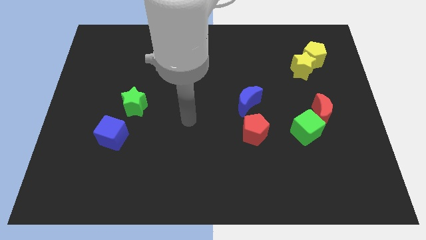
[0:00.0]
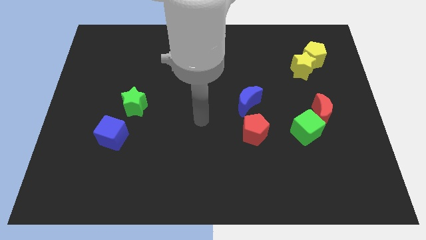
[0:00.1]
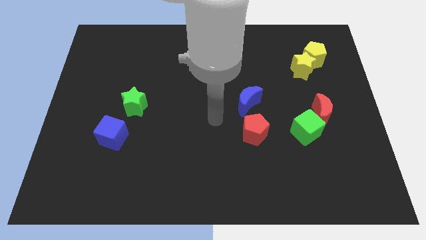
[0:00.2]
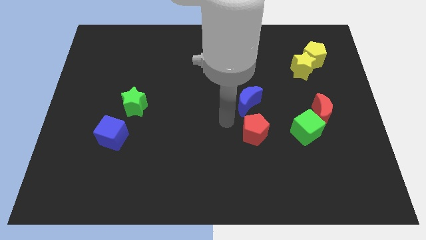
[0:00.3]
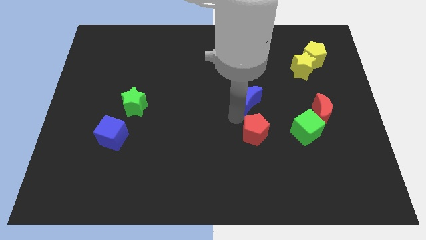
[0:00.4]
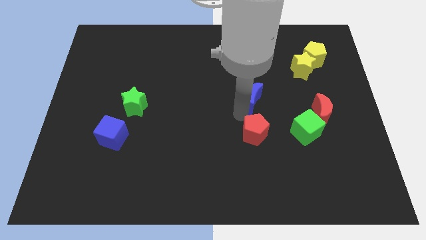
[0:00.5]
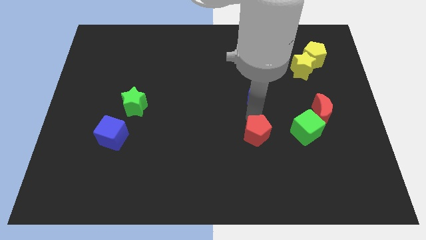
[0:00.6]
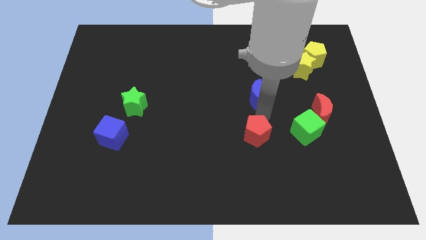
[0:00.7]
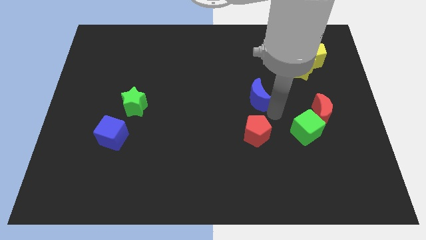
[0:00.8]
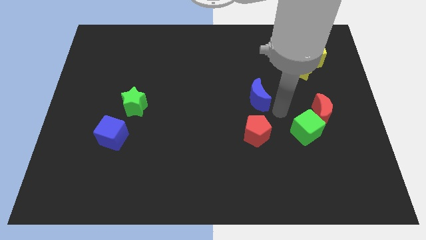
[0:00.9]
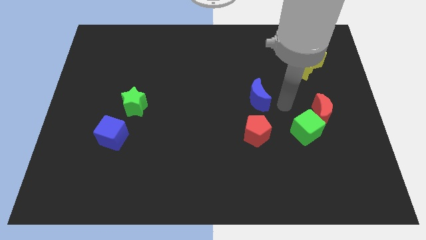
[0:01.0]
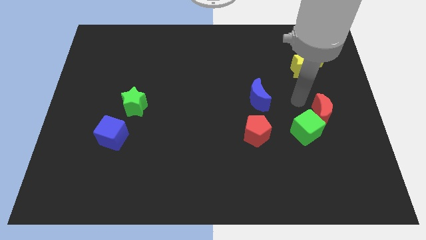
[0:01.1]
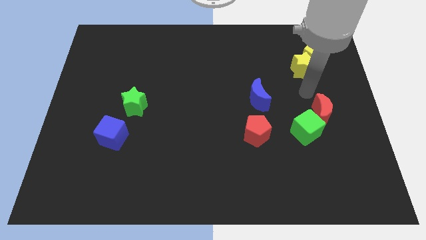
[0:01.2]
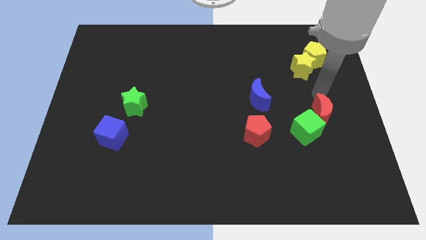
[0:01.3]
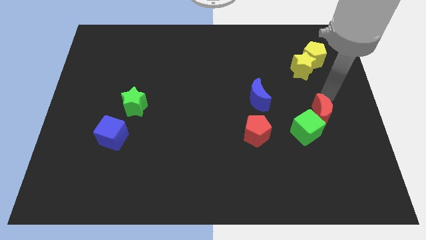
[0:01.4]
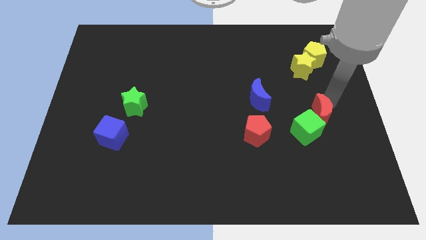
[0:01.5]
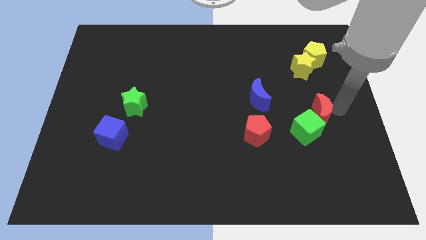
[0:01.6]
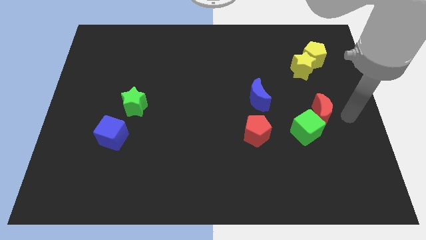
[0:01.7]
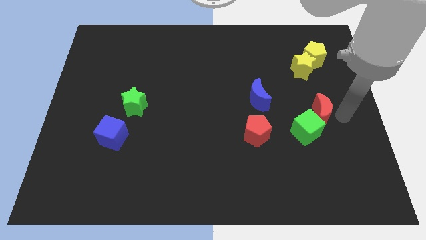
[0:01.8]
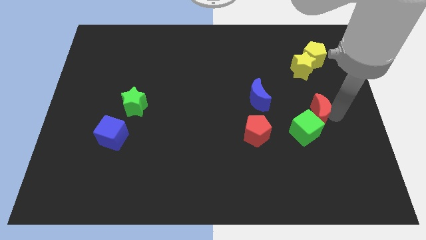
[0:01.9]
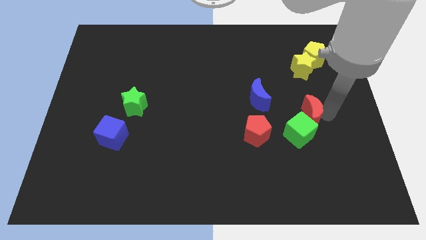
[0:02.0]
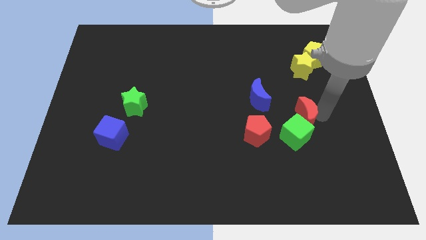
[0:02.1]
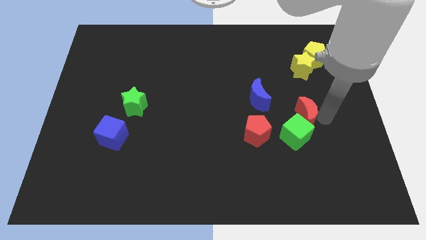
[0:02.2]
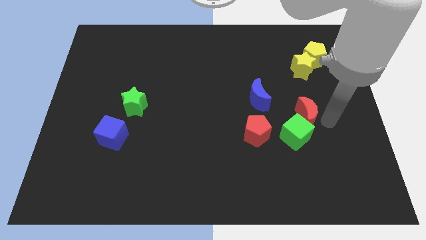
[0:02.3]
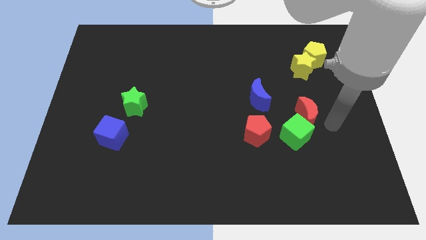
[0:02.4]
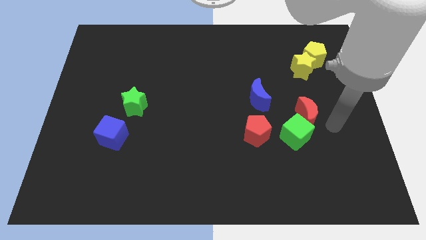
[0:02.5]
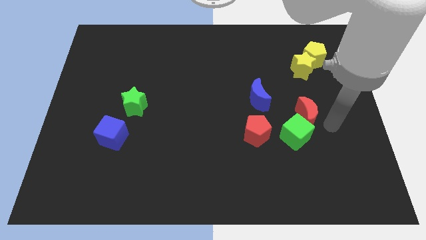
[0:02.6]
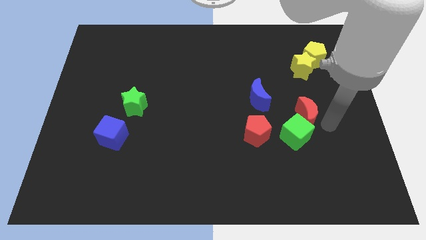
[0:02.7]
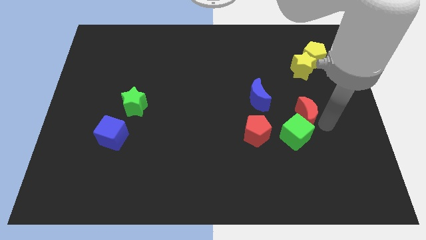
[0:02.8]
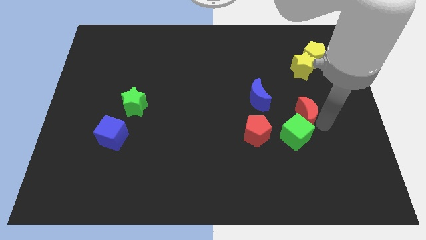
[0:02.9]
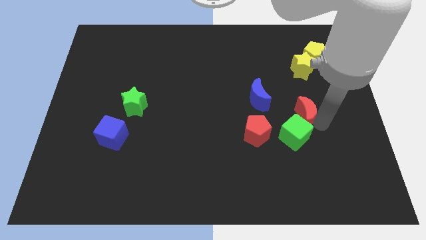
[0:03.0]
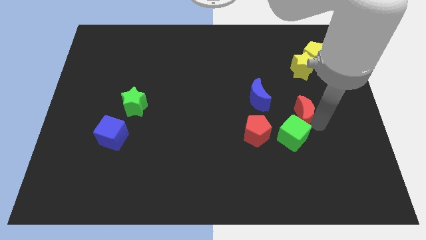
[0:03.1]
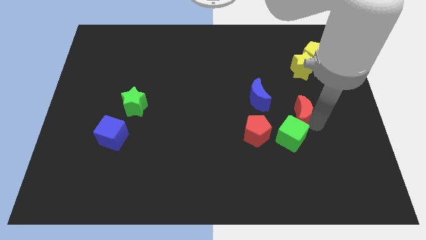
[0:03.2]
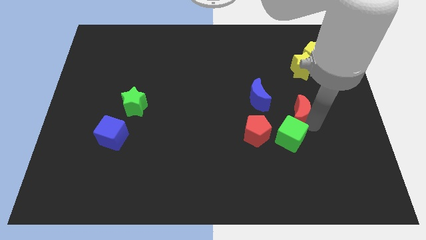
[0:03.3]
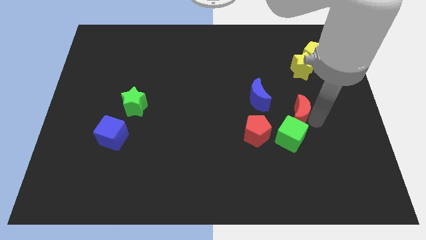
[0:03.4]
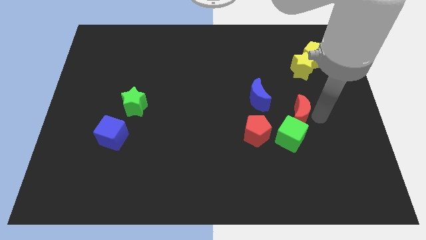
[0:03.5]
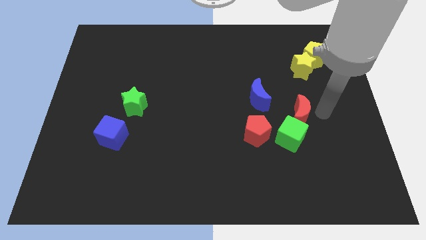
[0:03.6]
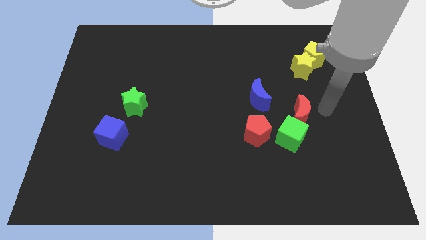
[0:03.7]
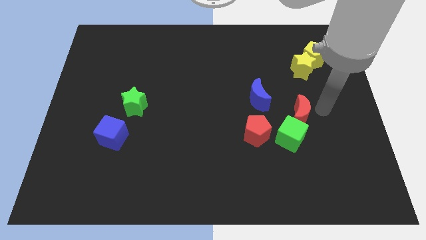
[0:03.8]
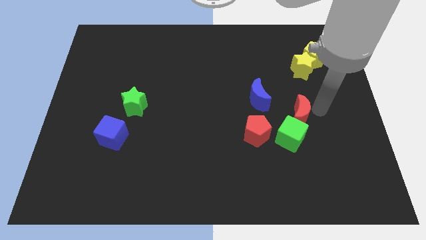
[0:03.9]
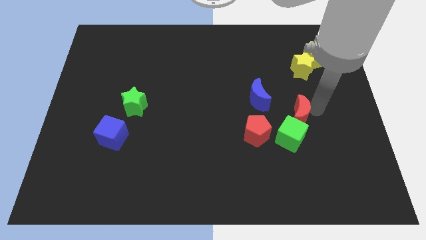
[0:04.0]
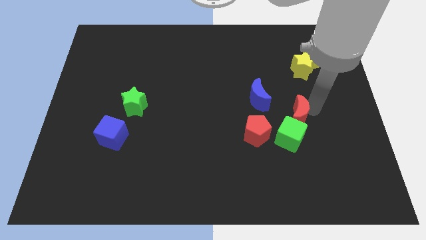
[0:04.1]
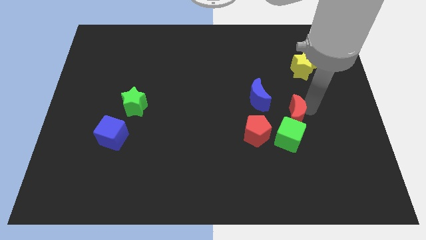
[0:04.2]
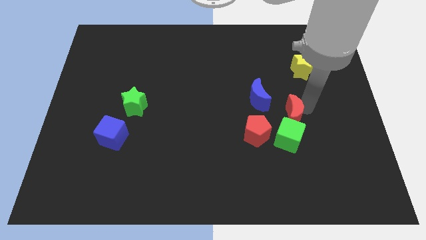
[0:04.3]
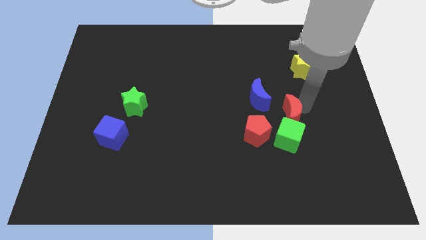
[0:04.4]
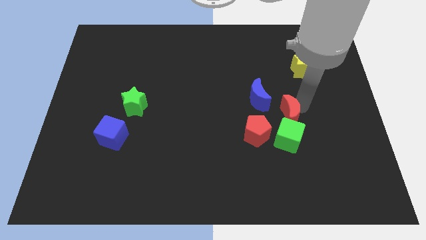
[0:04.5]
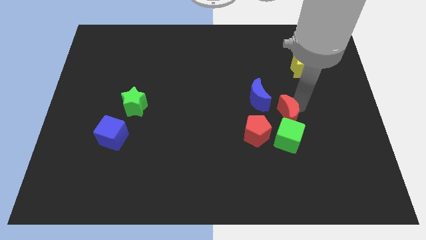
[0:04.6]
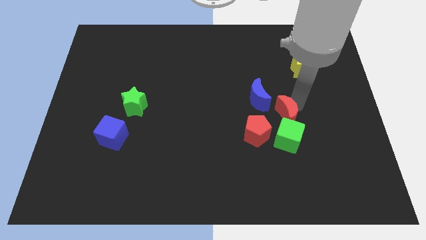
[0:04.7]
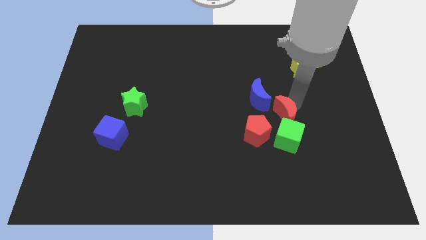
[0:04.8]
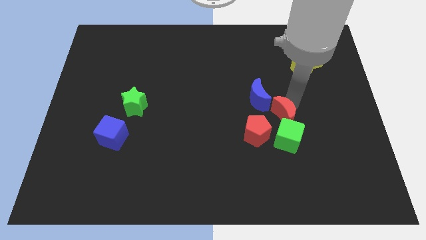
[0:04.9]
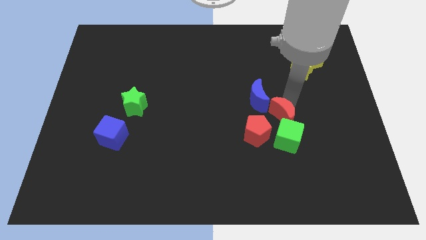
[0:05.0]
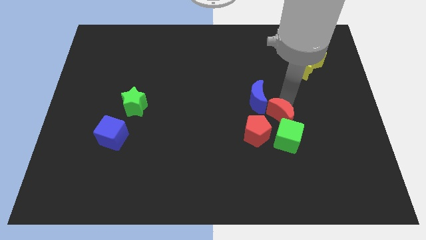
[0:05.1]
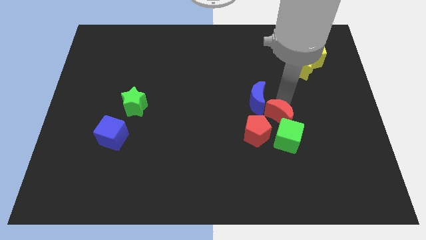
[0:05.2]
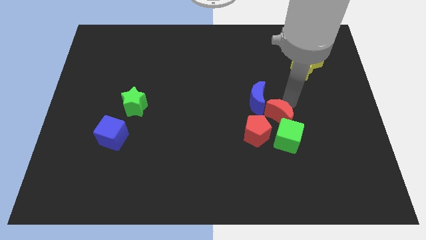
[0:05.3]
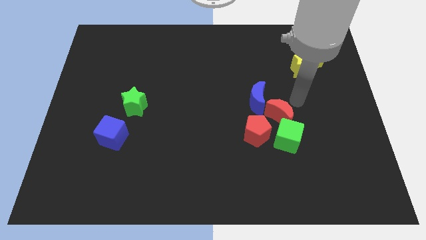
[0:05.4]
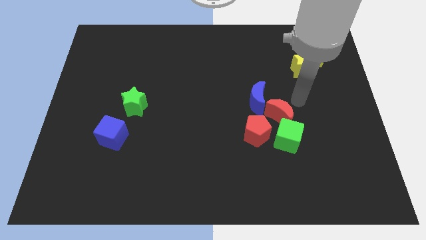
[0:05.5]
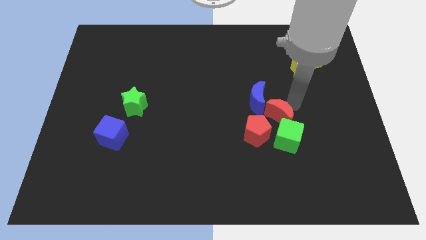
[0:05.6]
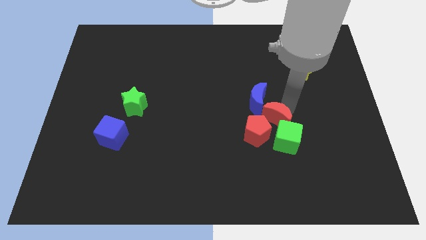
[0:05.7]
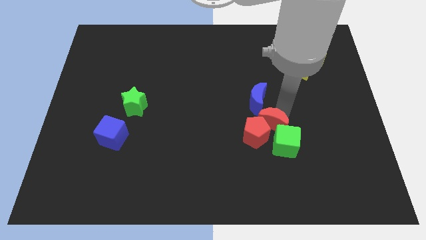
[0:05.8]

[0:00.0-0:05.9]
slide the red moon close to the red pentagon

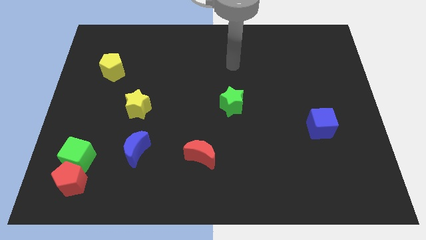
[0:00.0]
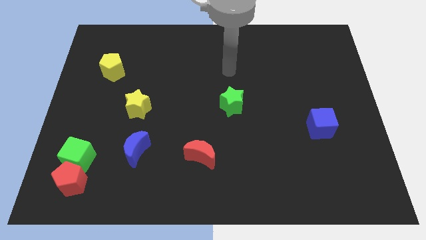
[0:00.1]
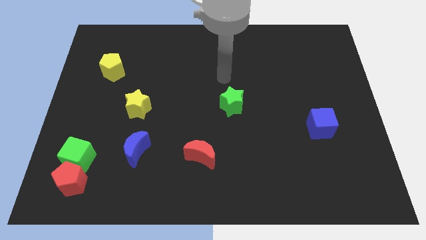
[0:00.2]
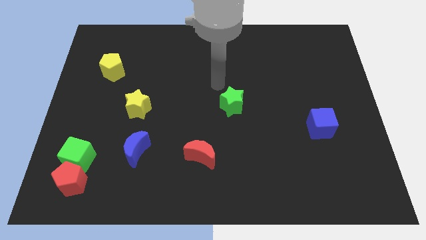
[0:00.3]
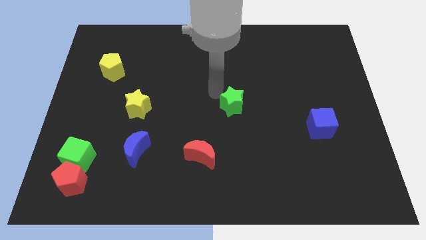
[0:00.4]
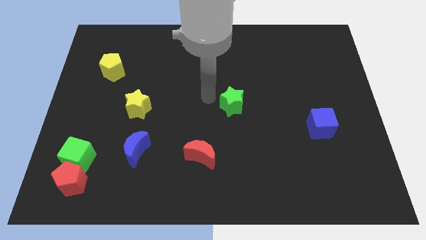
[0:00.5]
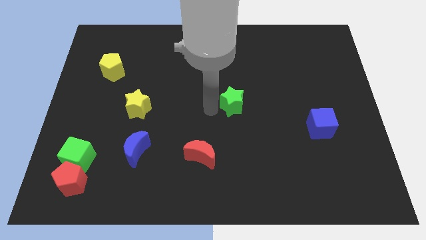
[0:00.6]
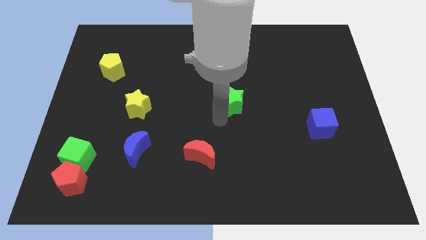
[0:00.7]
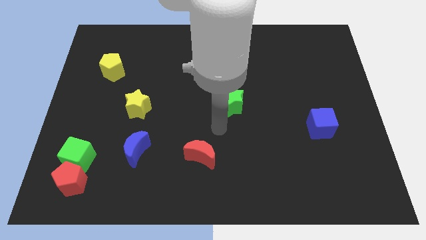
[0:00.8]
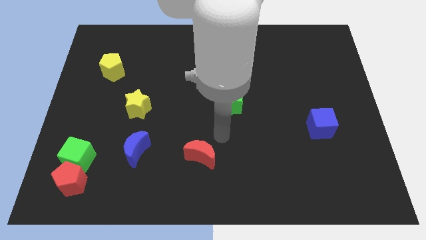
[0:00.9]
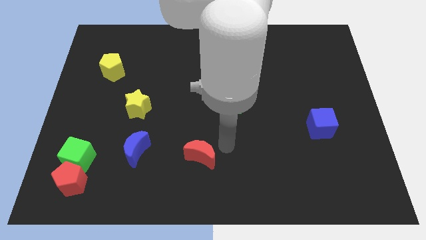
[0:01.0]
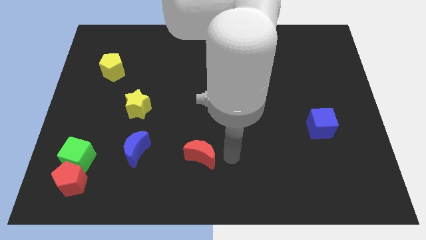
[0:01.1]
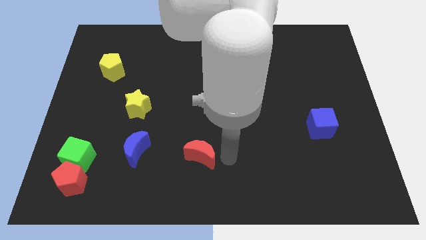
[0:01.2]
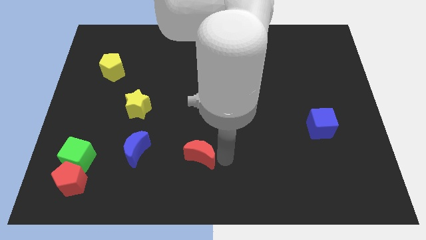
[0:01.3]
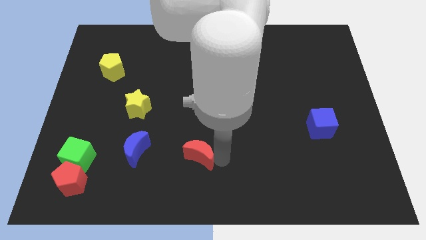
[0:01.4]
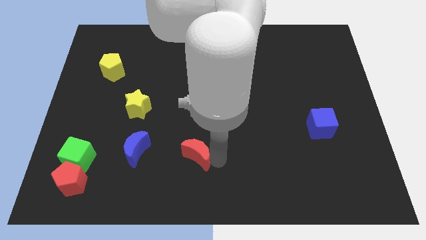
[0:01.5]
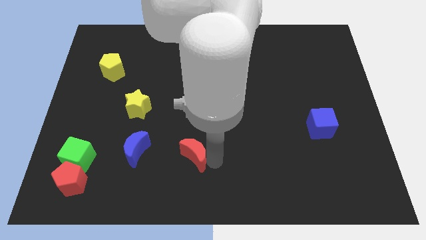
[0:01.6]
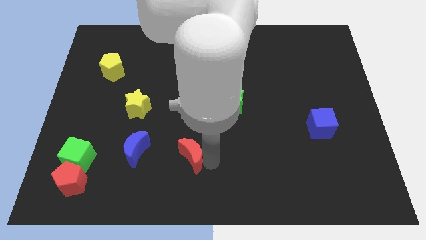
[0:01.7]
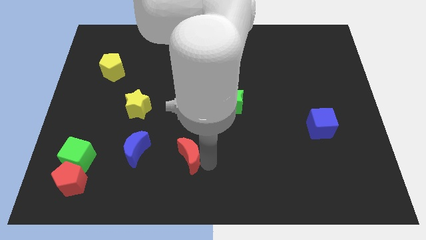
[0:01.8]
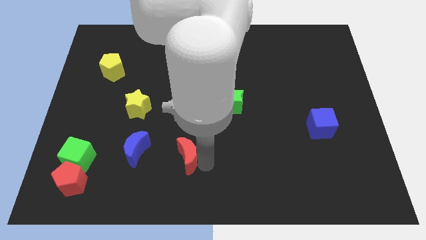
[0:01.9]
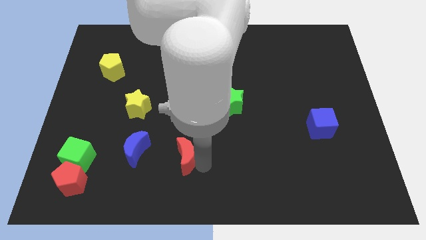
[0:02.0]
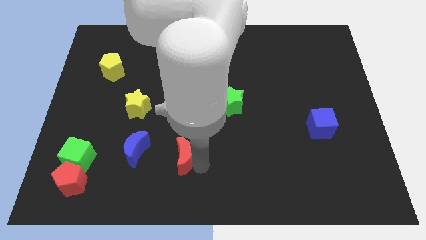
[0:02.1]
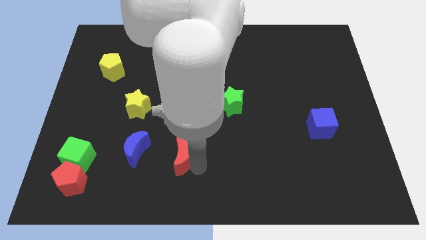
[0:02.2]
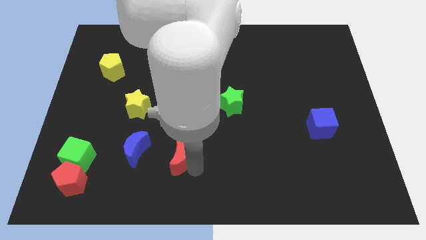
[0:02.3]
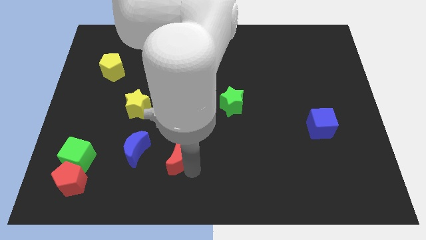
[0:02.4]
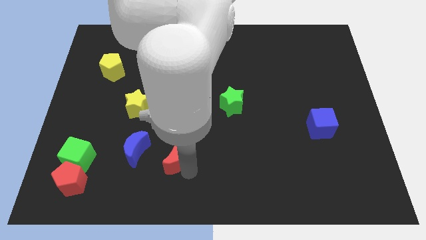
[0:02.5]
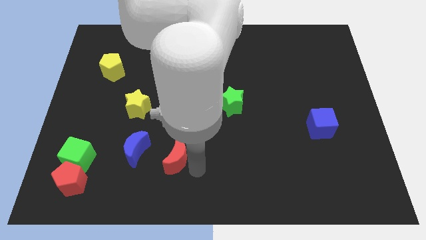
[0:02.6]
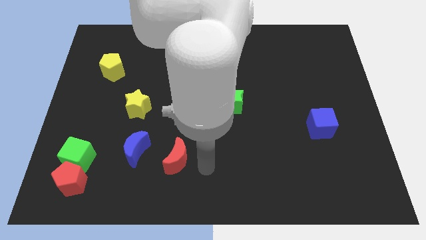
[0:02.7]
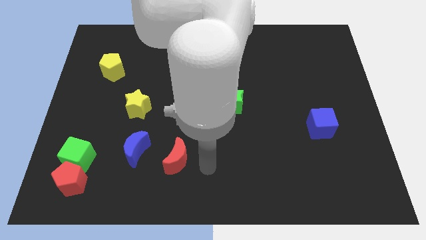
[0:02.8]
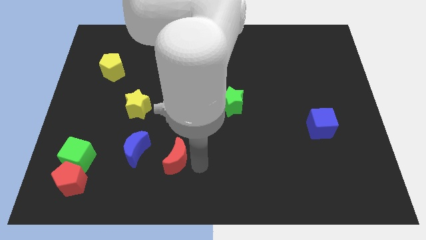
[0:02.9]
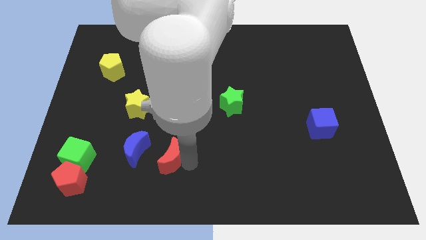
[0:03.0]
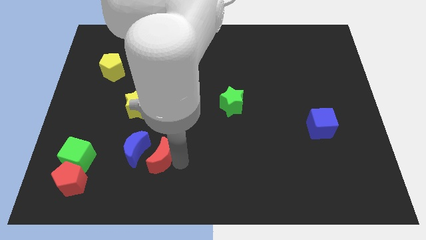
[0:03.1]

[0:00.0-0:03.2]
push the red moon close to the blue moon
